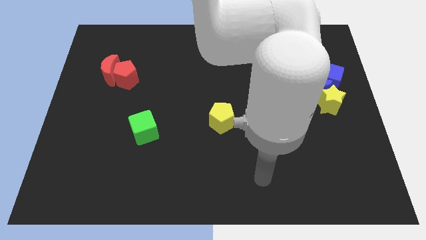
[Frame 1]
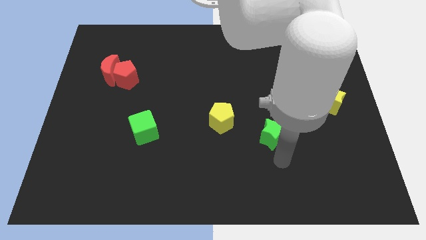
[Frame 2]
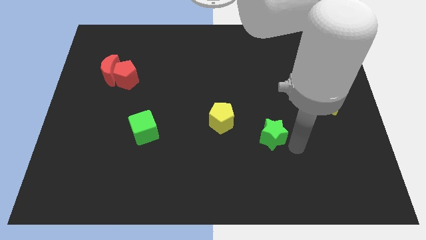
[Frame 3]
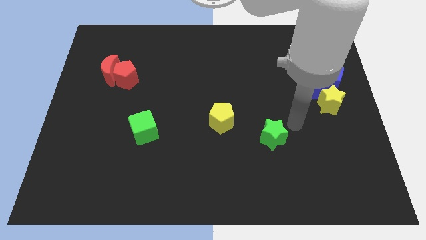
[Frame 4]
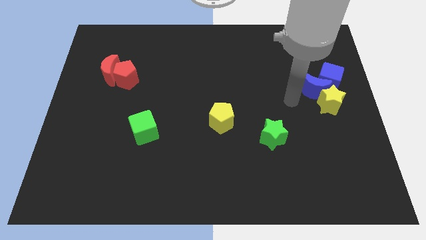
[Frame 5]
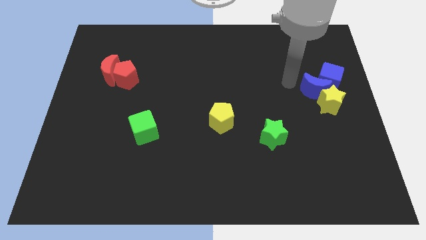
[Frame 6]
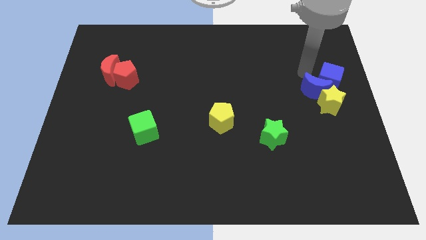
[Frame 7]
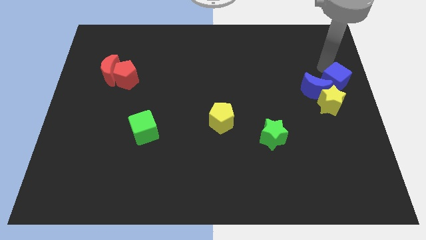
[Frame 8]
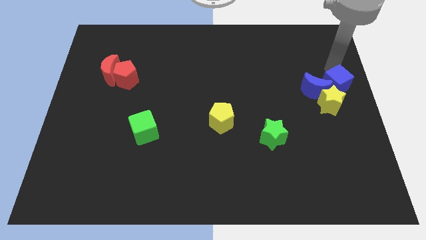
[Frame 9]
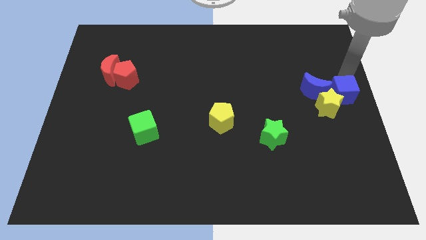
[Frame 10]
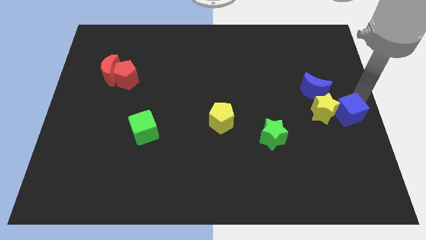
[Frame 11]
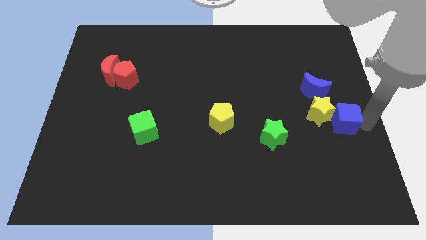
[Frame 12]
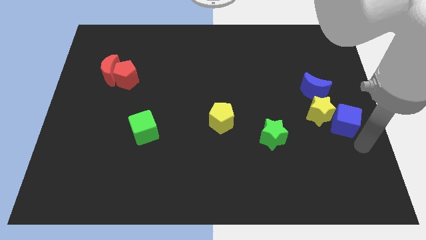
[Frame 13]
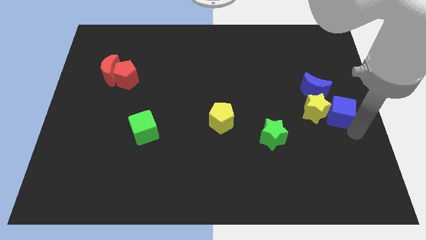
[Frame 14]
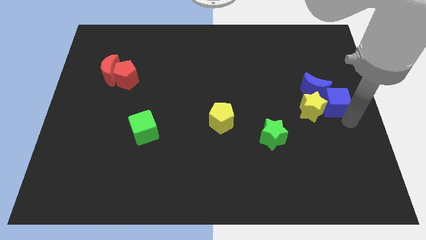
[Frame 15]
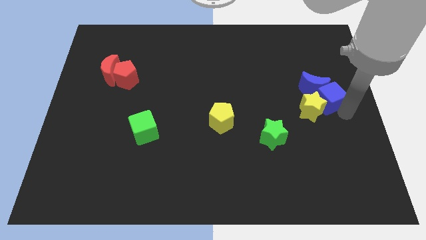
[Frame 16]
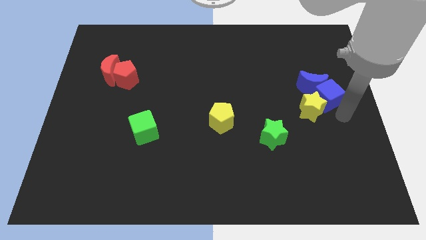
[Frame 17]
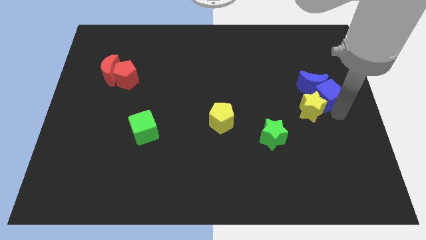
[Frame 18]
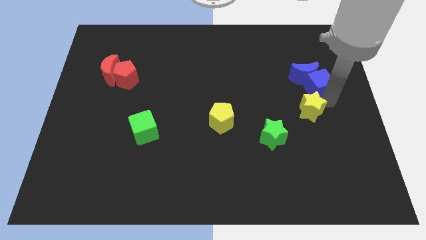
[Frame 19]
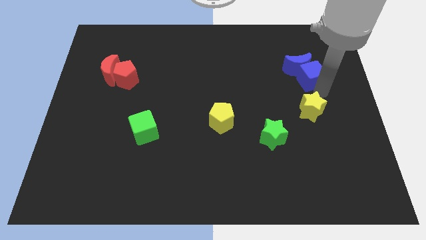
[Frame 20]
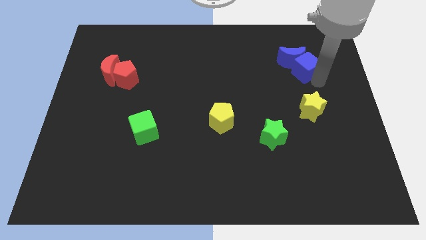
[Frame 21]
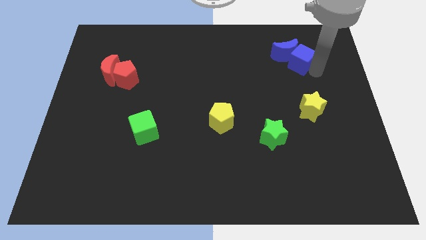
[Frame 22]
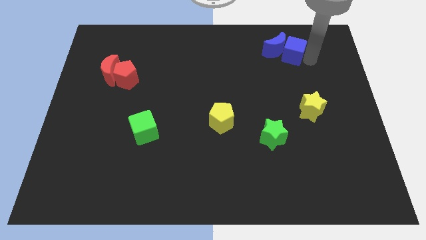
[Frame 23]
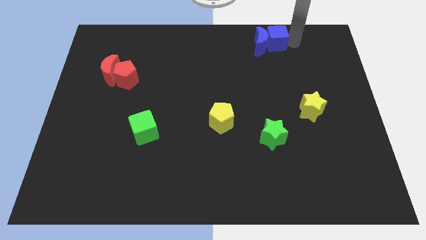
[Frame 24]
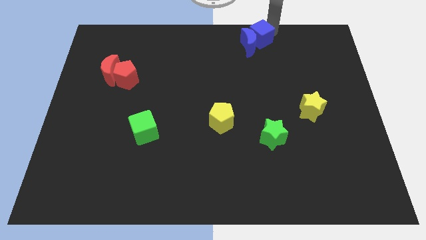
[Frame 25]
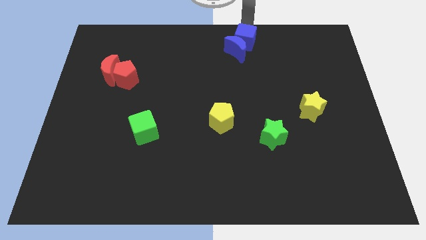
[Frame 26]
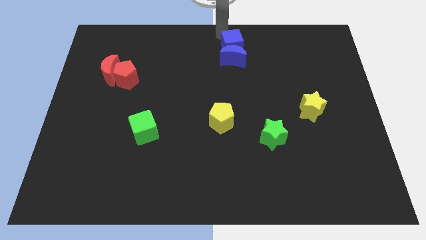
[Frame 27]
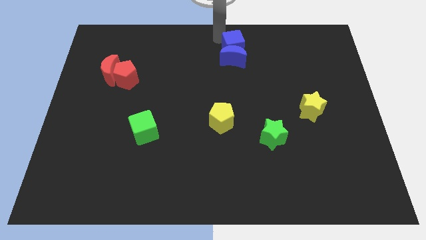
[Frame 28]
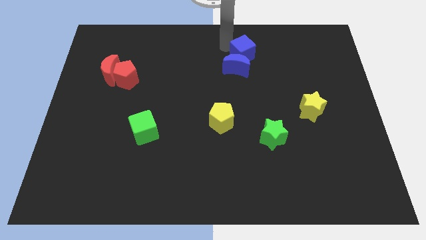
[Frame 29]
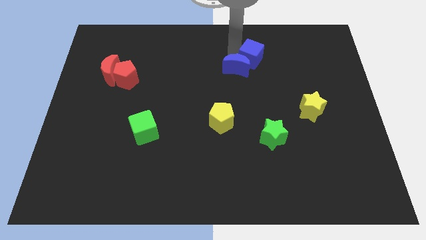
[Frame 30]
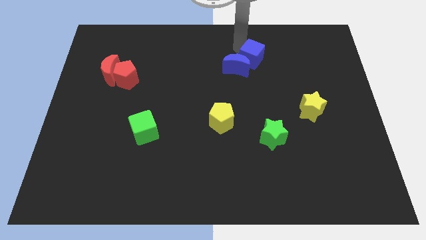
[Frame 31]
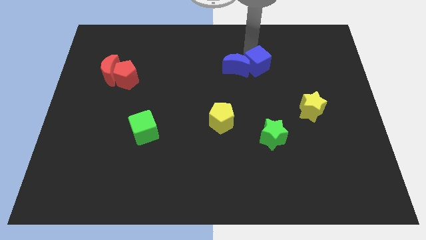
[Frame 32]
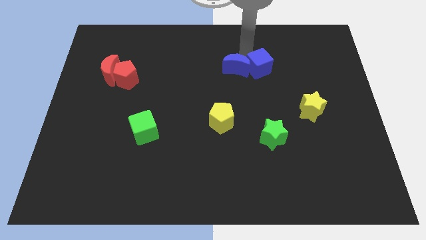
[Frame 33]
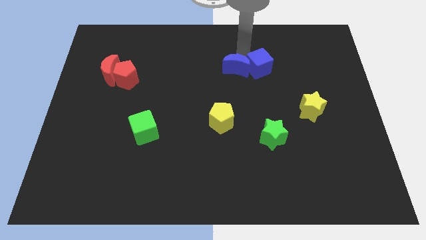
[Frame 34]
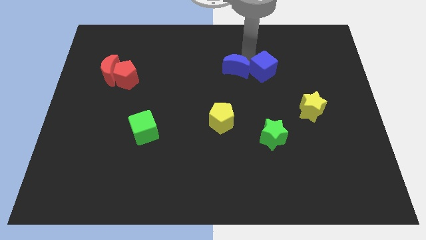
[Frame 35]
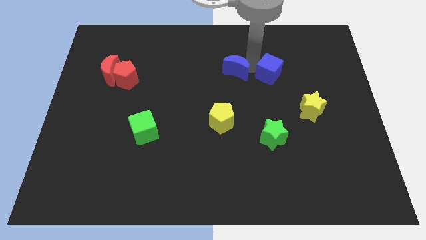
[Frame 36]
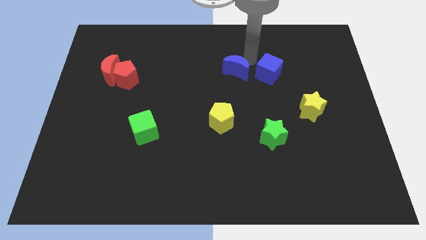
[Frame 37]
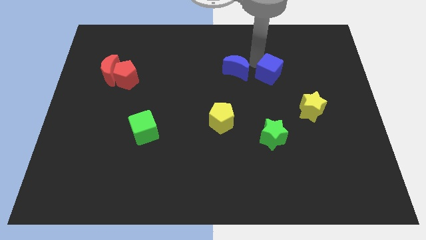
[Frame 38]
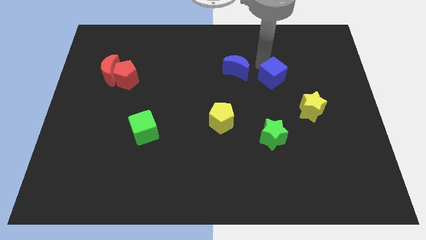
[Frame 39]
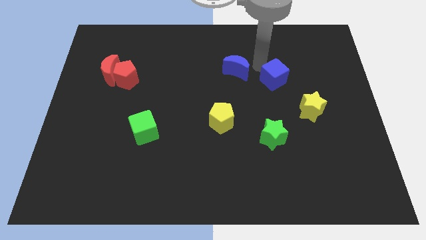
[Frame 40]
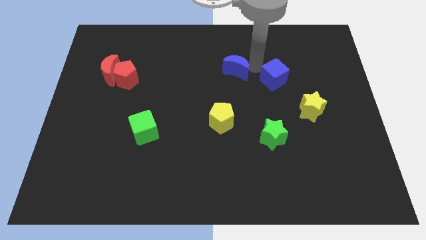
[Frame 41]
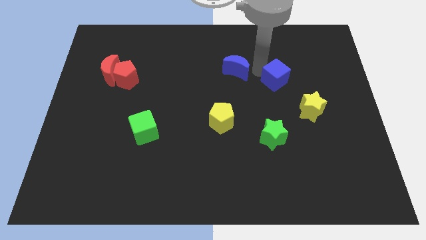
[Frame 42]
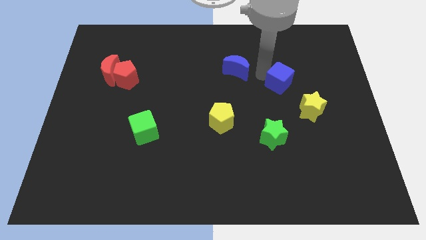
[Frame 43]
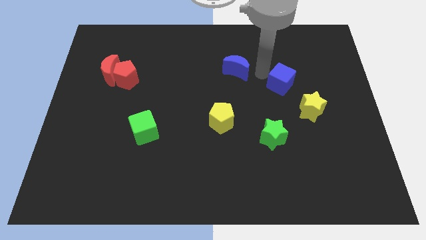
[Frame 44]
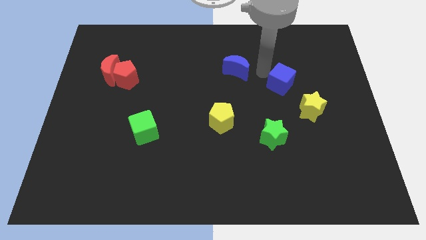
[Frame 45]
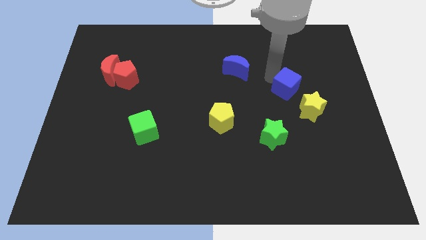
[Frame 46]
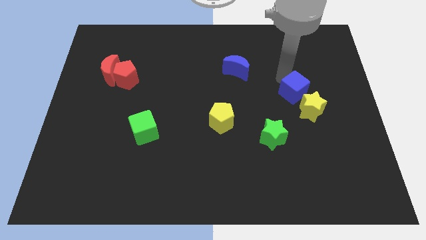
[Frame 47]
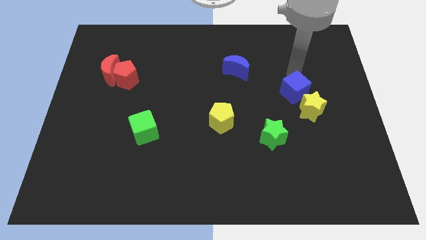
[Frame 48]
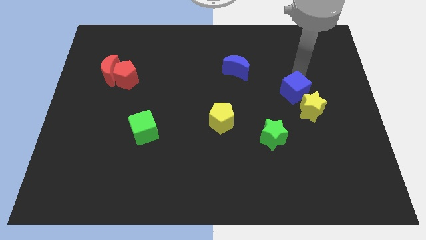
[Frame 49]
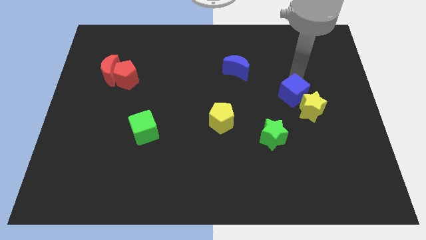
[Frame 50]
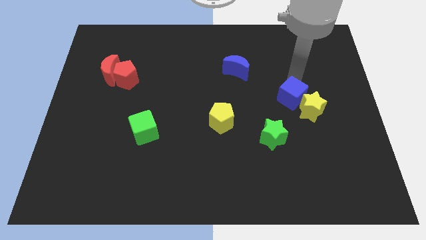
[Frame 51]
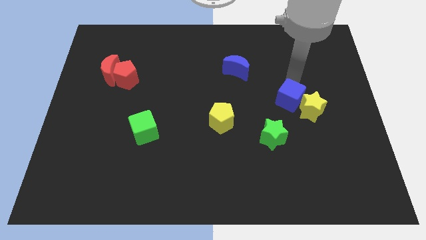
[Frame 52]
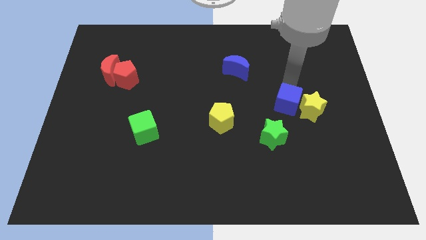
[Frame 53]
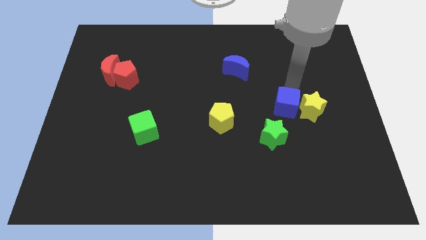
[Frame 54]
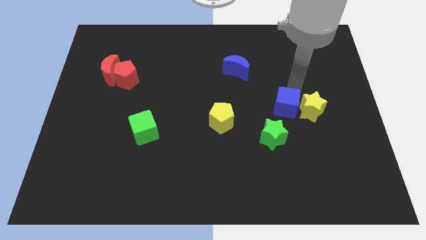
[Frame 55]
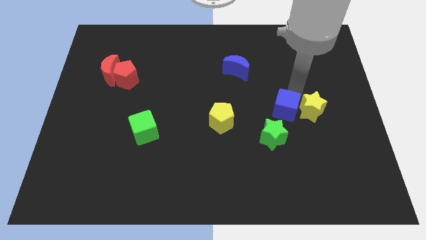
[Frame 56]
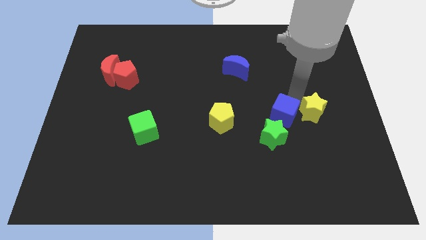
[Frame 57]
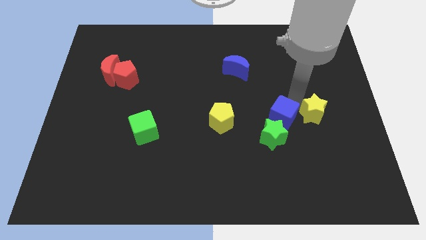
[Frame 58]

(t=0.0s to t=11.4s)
push the blue cube next to the green star

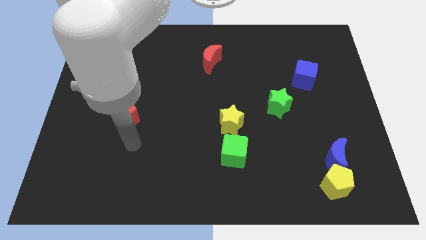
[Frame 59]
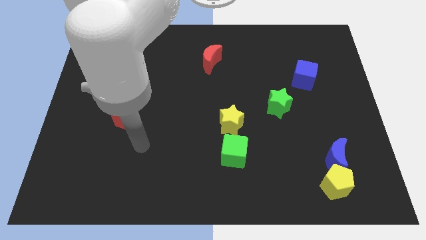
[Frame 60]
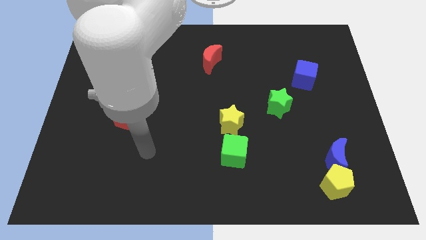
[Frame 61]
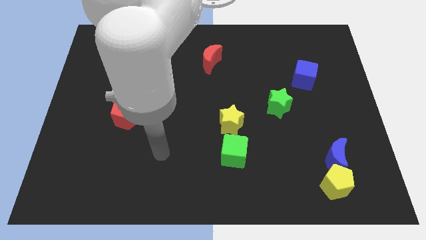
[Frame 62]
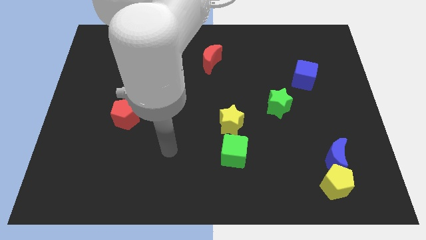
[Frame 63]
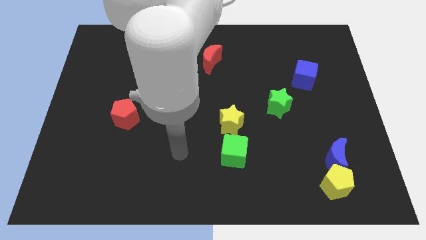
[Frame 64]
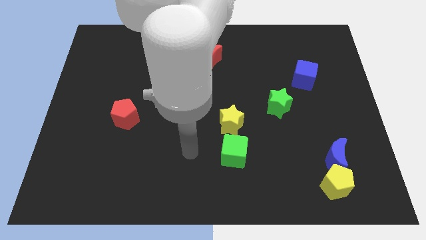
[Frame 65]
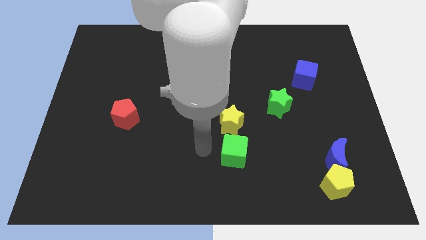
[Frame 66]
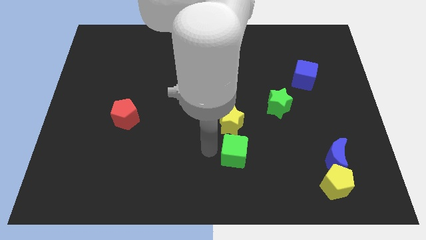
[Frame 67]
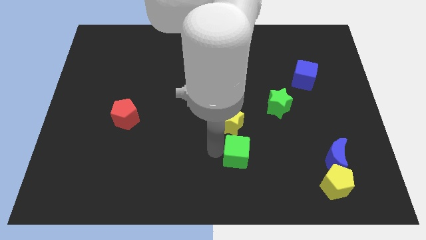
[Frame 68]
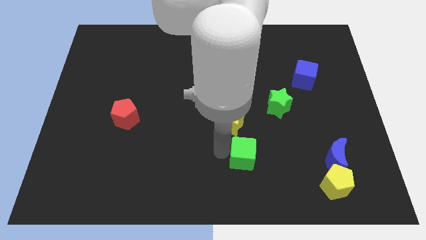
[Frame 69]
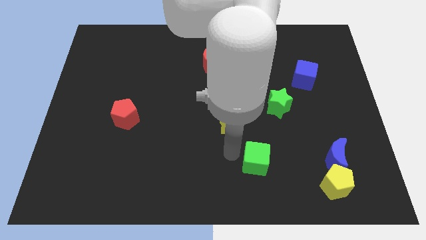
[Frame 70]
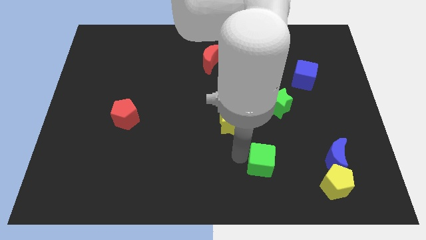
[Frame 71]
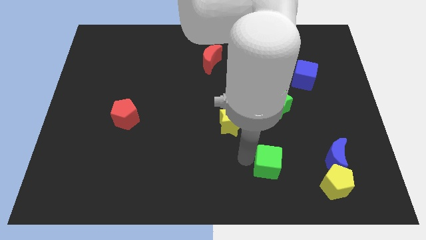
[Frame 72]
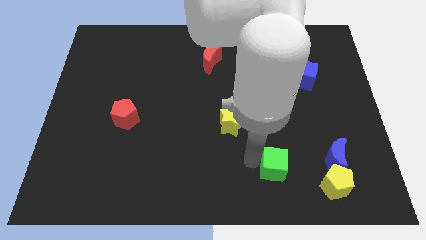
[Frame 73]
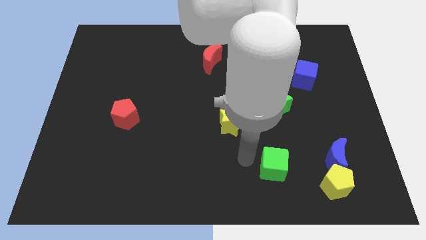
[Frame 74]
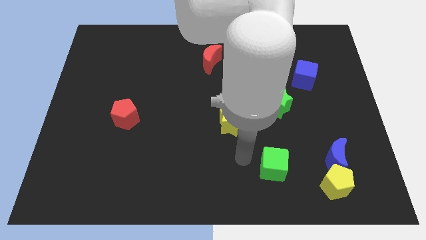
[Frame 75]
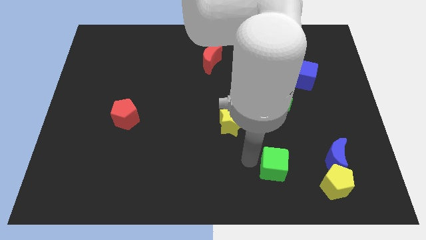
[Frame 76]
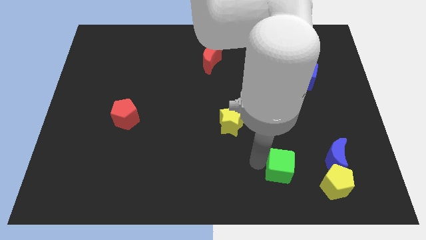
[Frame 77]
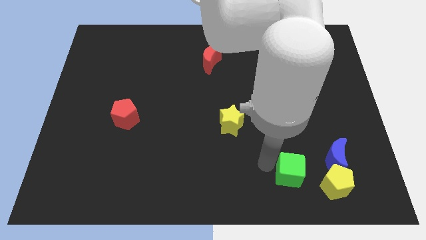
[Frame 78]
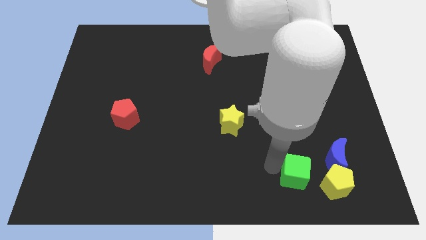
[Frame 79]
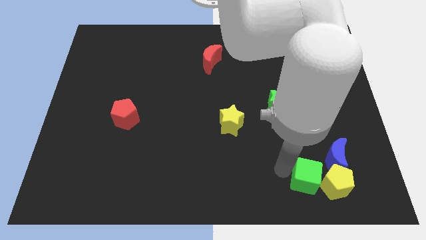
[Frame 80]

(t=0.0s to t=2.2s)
put the green cube next to the yellow pentagon
